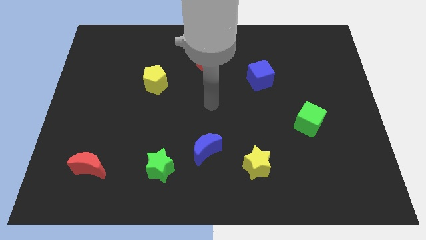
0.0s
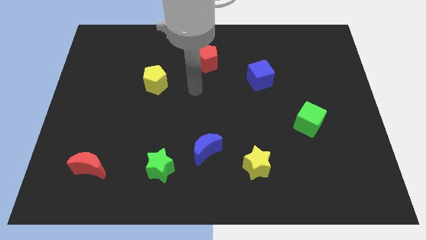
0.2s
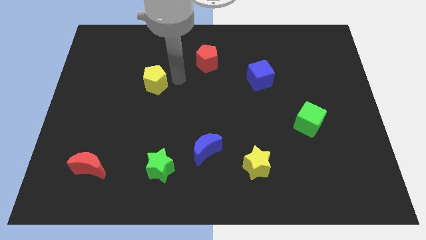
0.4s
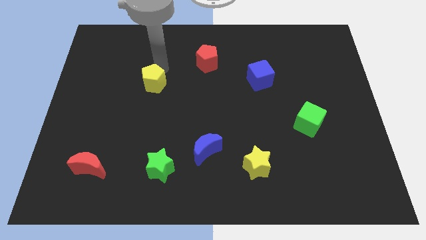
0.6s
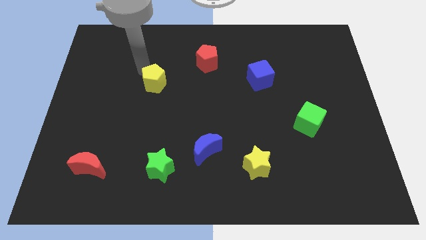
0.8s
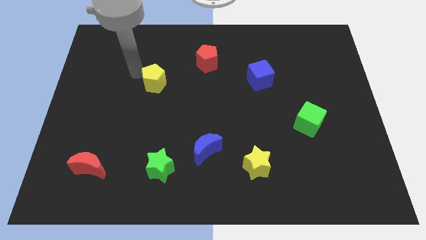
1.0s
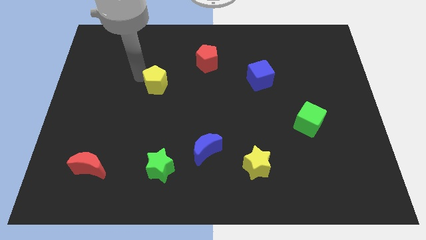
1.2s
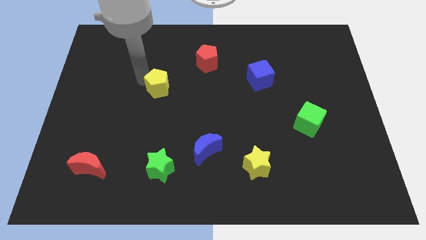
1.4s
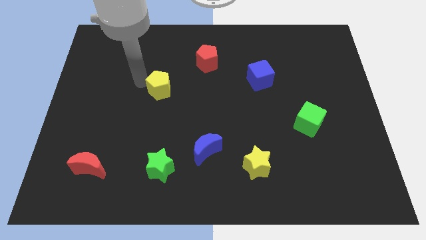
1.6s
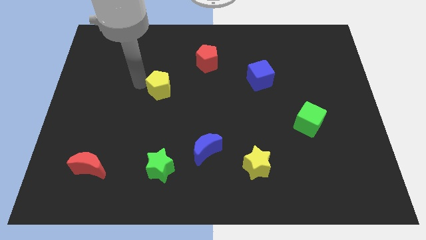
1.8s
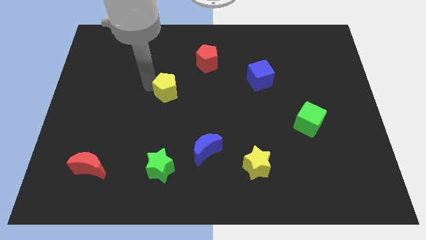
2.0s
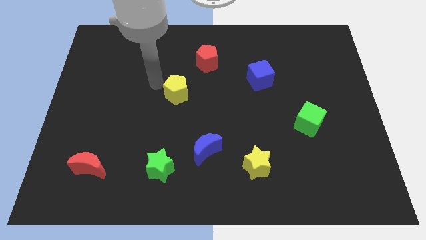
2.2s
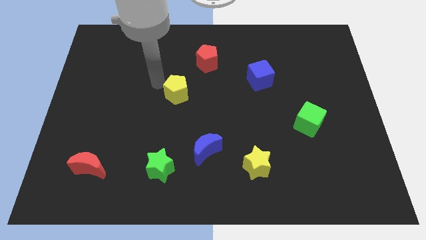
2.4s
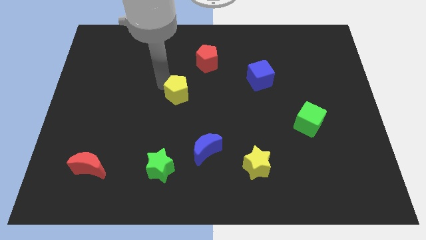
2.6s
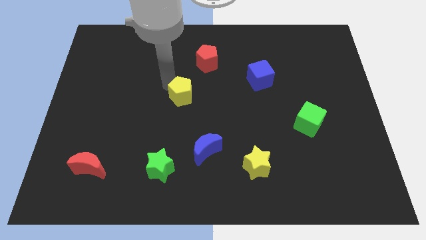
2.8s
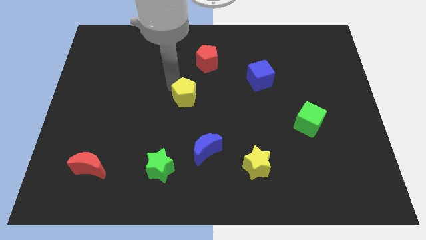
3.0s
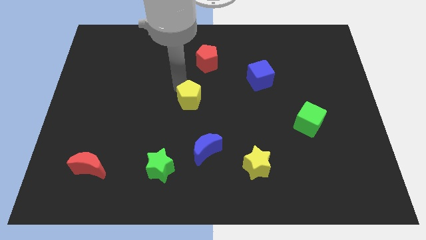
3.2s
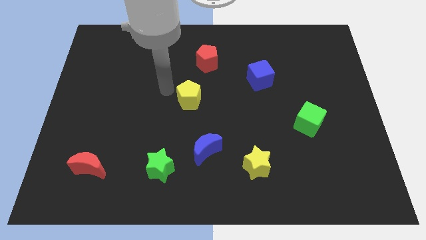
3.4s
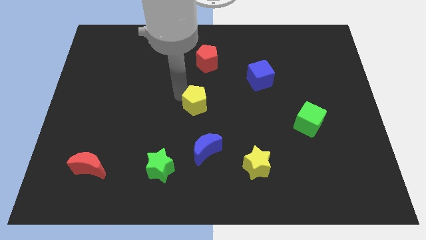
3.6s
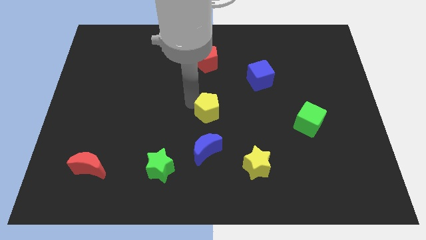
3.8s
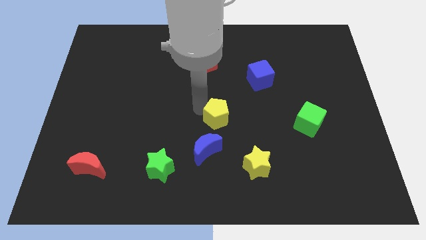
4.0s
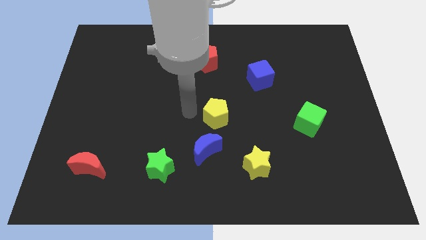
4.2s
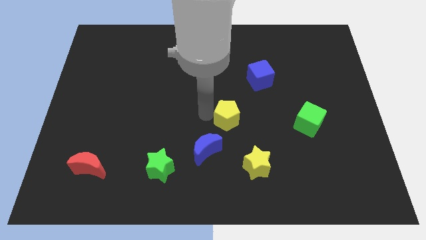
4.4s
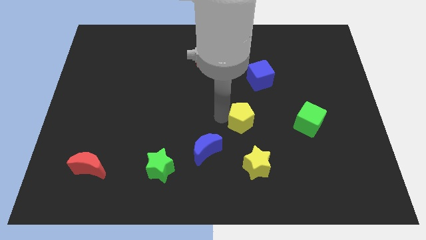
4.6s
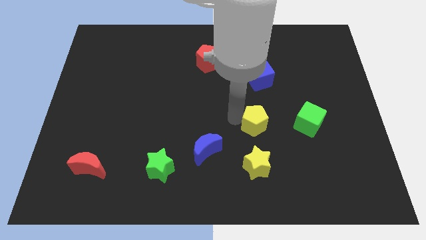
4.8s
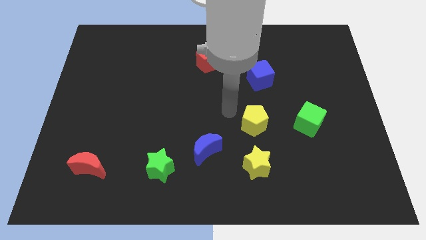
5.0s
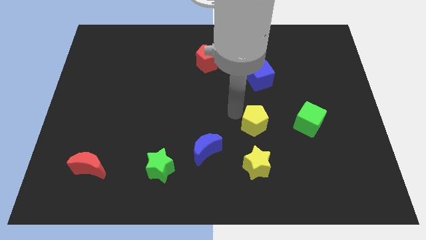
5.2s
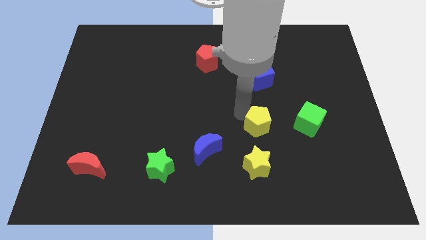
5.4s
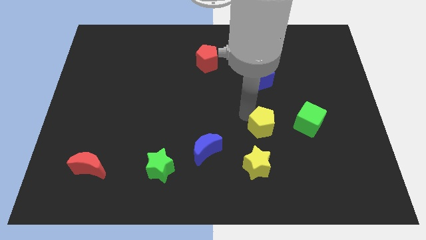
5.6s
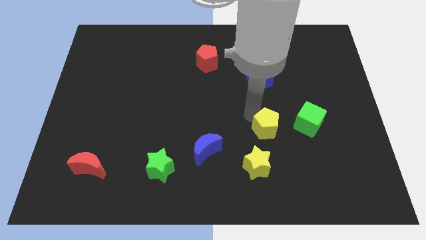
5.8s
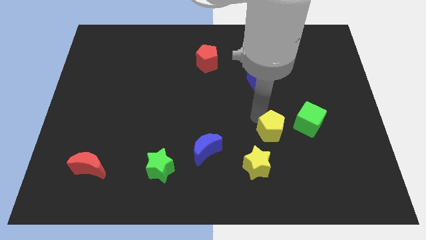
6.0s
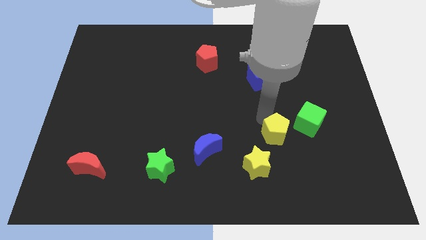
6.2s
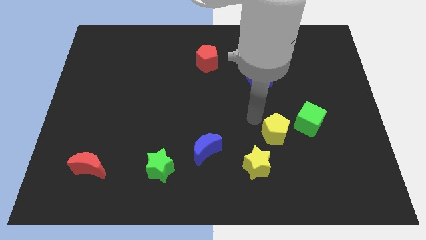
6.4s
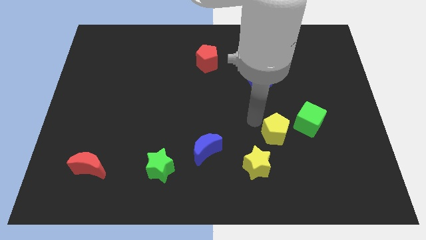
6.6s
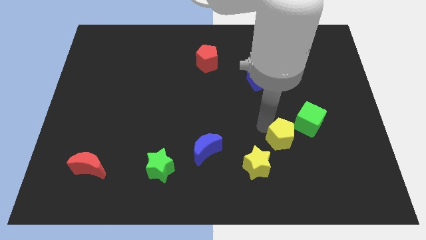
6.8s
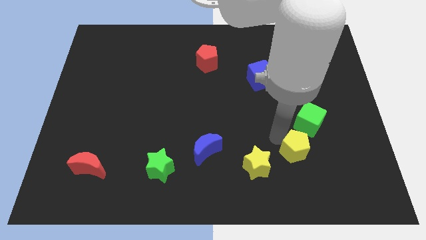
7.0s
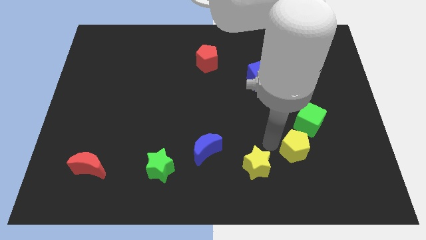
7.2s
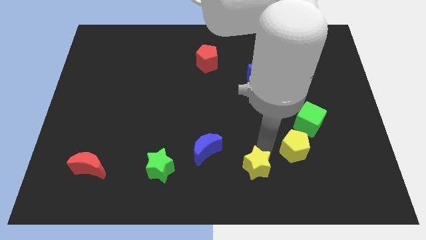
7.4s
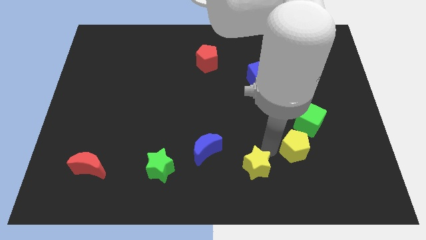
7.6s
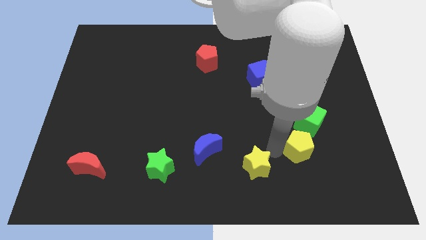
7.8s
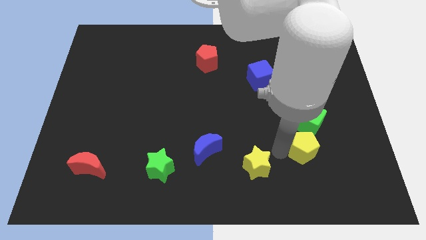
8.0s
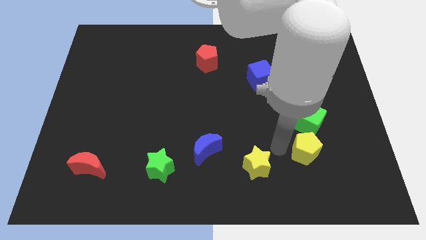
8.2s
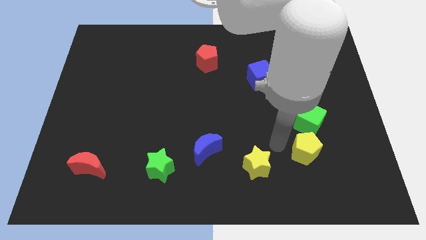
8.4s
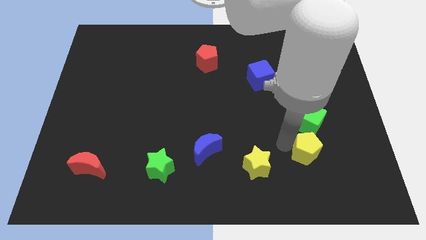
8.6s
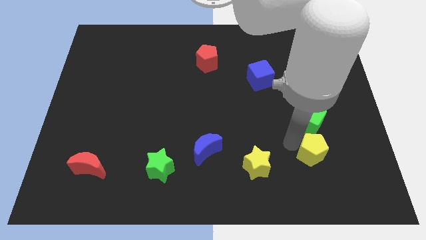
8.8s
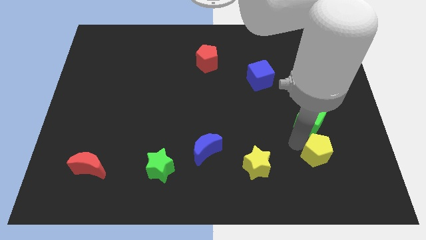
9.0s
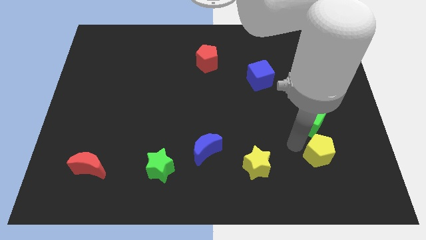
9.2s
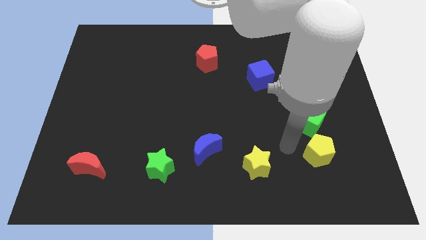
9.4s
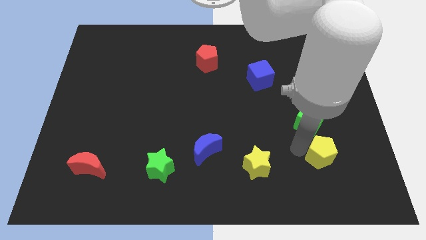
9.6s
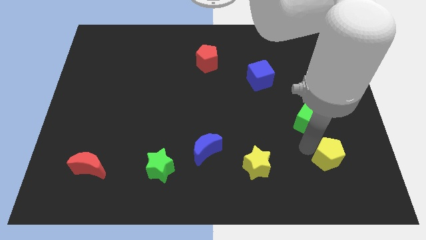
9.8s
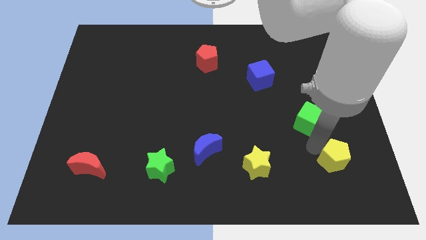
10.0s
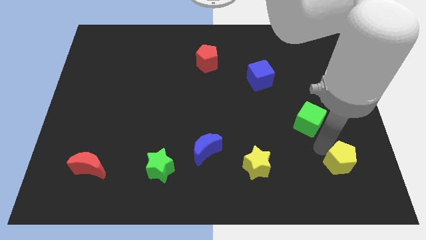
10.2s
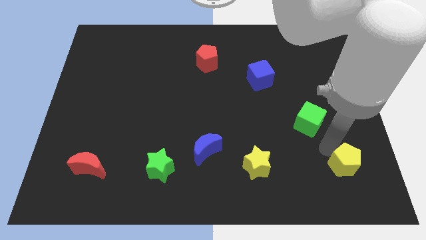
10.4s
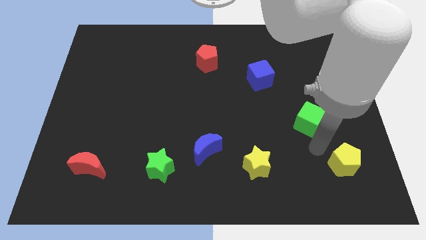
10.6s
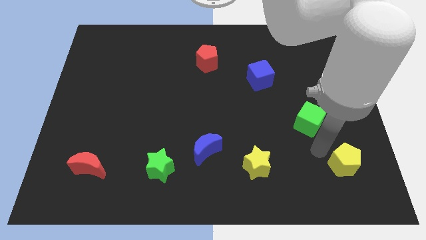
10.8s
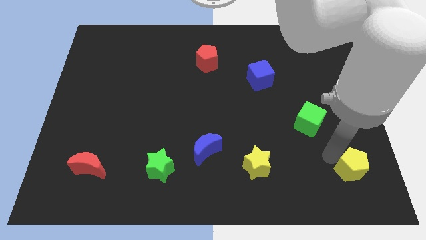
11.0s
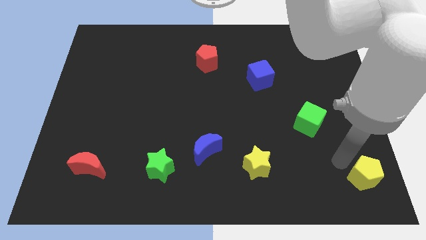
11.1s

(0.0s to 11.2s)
move the yellow pentagon to the lower right corner
